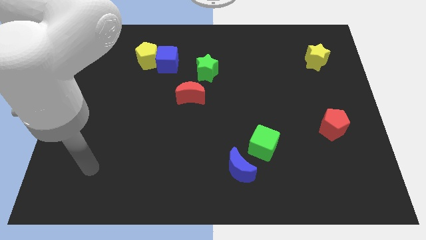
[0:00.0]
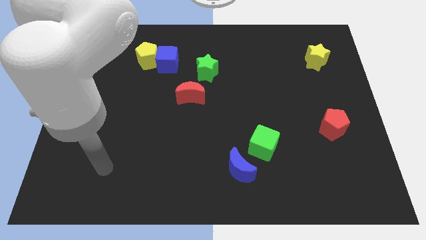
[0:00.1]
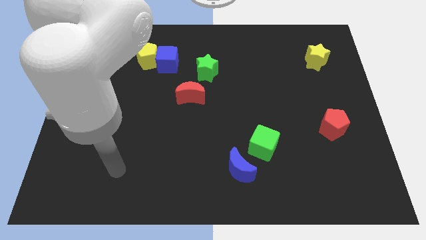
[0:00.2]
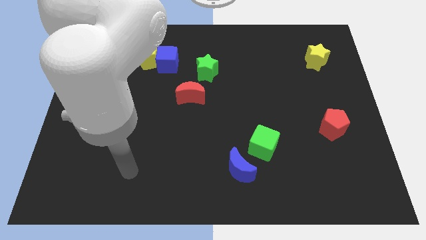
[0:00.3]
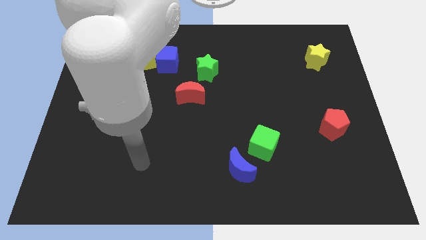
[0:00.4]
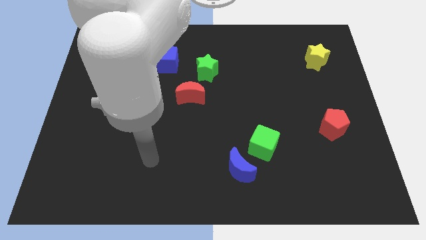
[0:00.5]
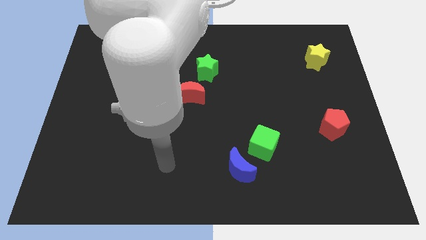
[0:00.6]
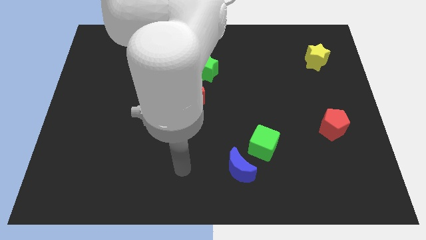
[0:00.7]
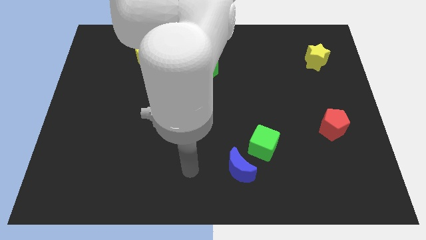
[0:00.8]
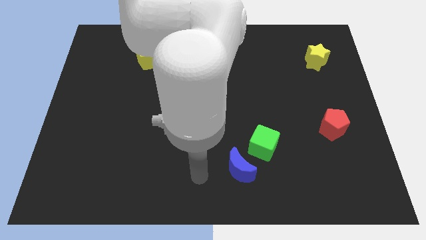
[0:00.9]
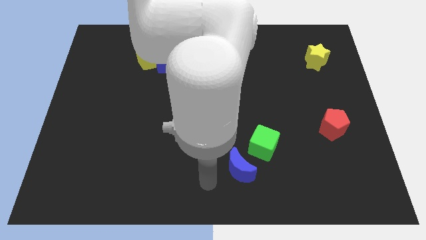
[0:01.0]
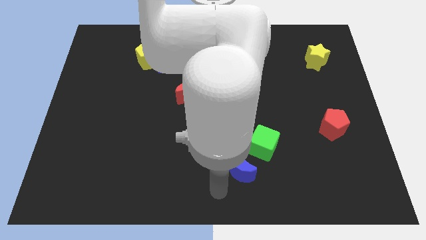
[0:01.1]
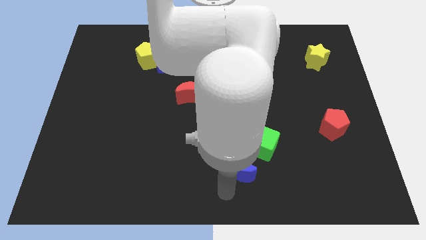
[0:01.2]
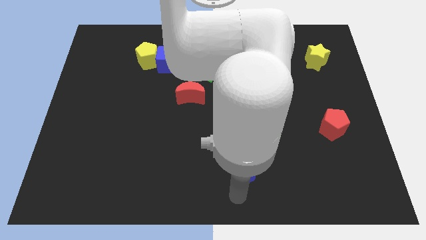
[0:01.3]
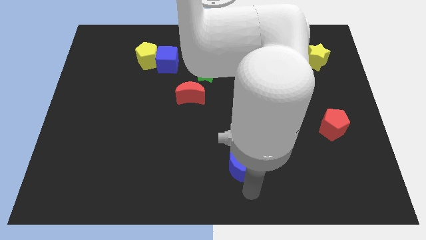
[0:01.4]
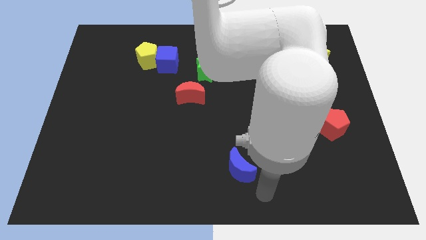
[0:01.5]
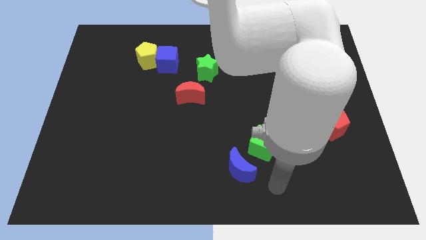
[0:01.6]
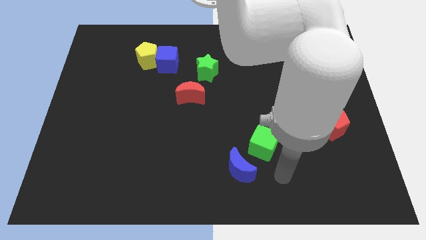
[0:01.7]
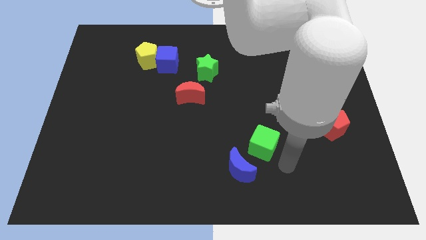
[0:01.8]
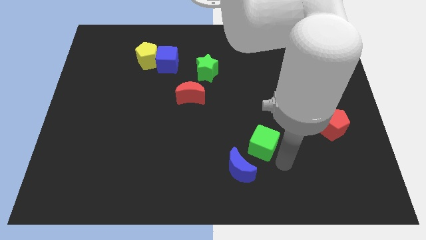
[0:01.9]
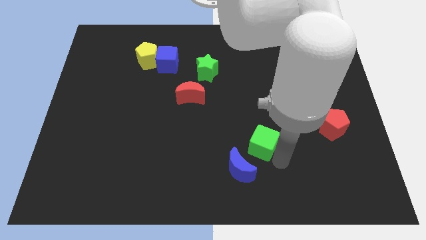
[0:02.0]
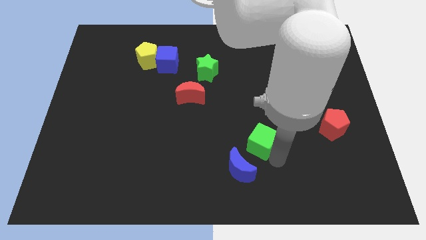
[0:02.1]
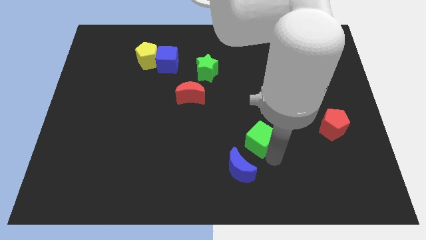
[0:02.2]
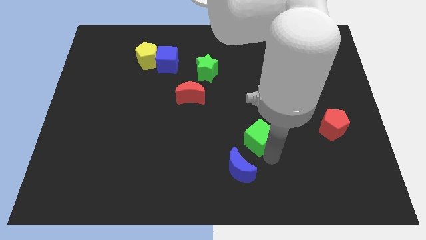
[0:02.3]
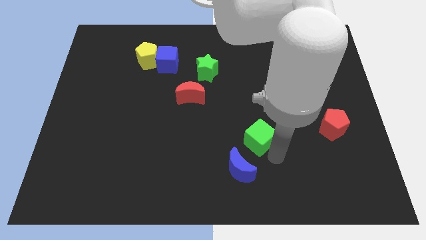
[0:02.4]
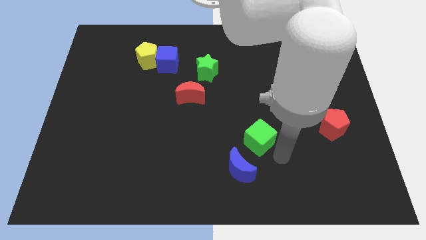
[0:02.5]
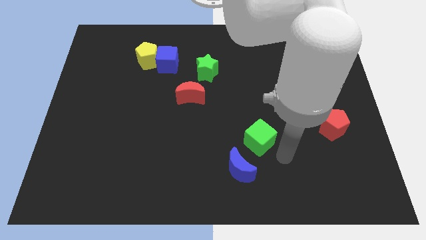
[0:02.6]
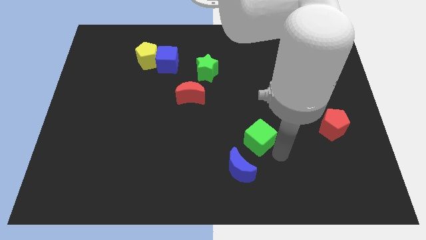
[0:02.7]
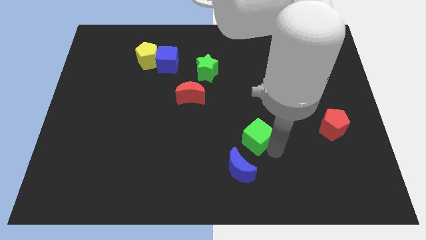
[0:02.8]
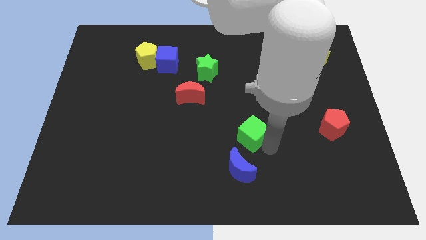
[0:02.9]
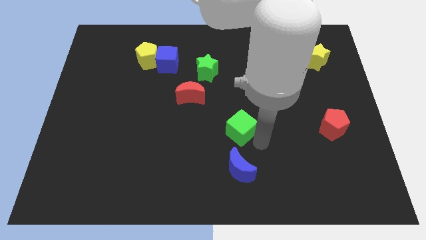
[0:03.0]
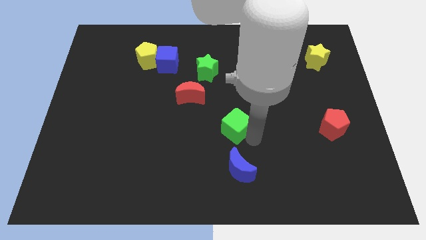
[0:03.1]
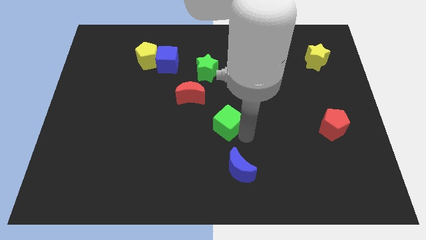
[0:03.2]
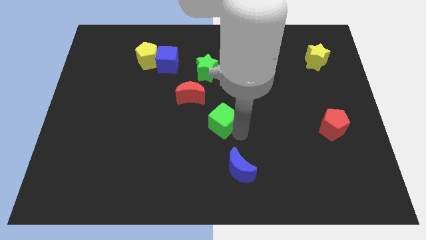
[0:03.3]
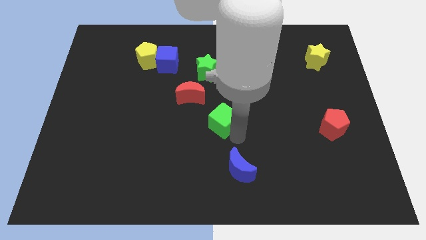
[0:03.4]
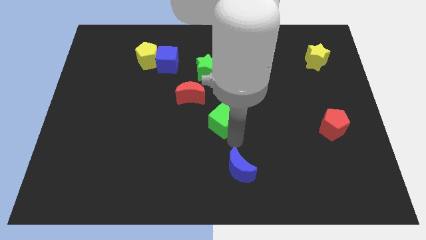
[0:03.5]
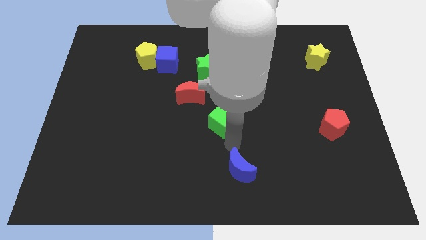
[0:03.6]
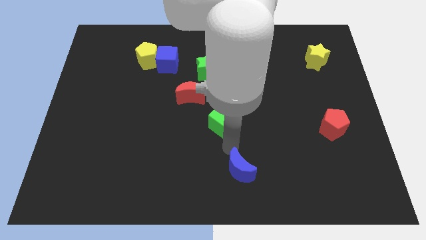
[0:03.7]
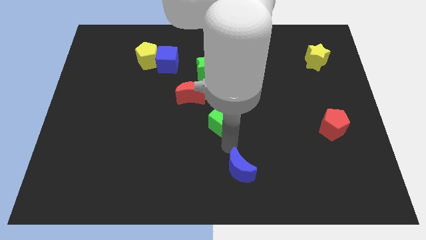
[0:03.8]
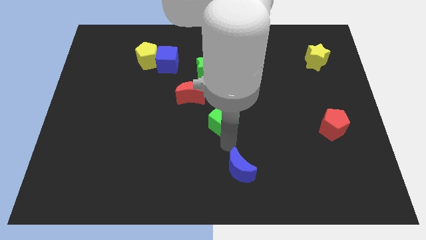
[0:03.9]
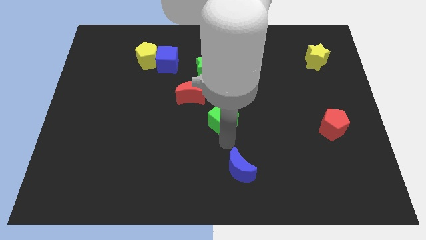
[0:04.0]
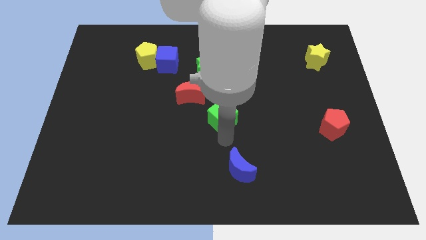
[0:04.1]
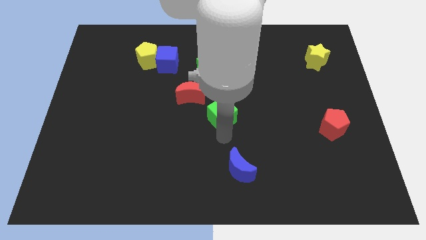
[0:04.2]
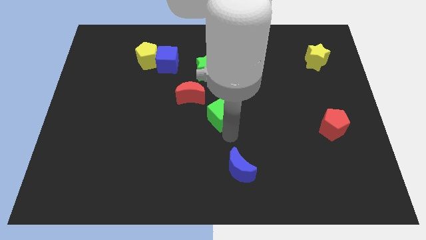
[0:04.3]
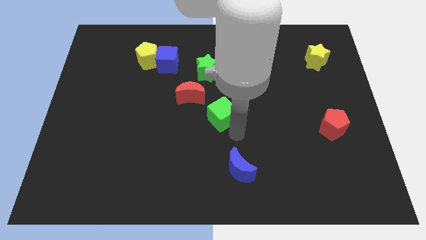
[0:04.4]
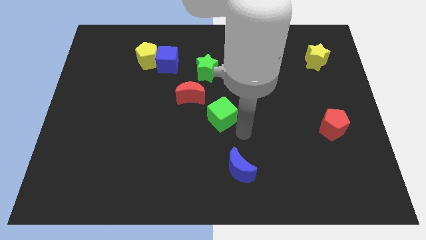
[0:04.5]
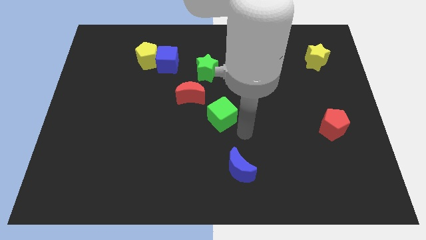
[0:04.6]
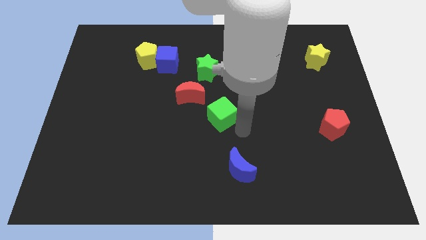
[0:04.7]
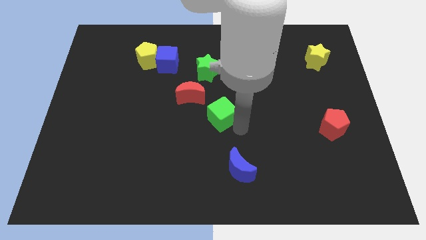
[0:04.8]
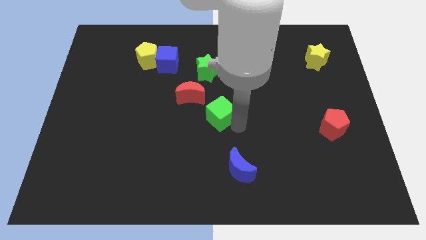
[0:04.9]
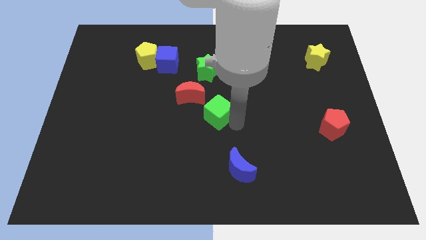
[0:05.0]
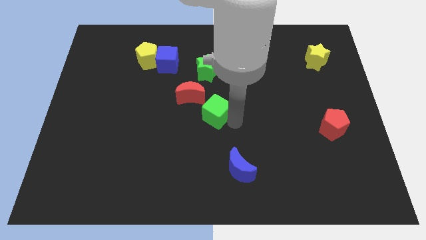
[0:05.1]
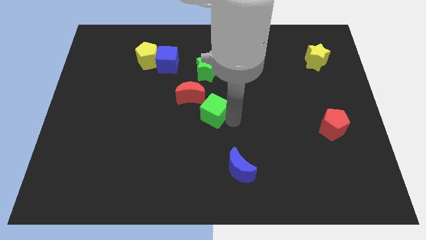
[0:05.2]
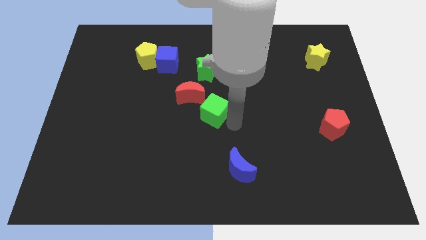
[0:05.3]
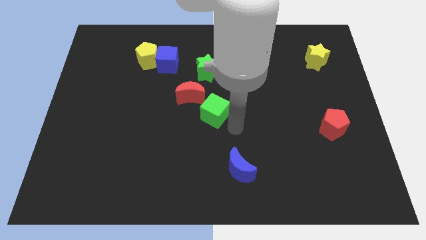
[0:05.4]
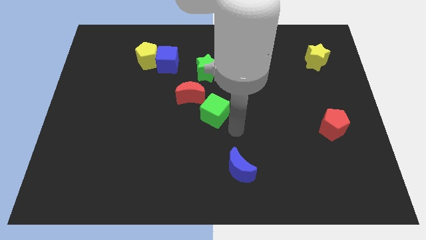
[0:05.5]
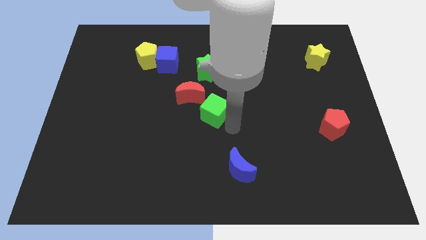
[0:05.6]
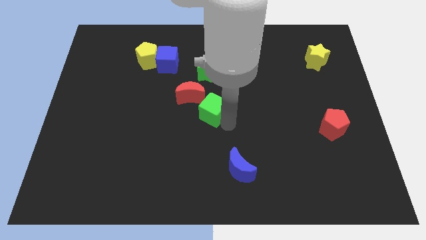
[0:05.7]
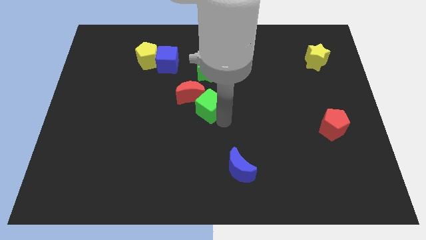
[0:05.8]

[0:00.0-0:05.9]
put the green cube close to the red moon

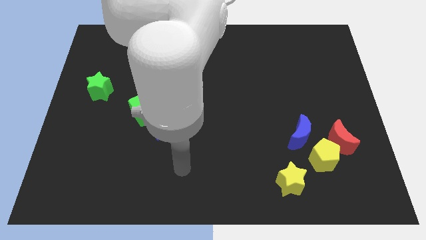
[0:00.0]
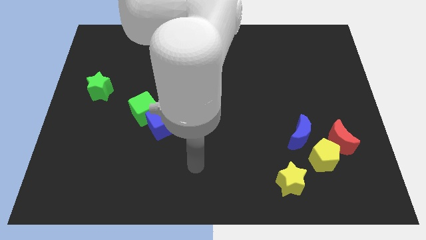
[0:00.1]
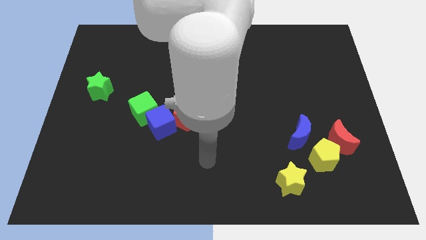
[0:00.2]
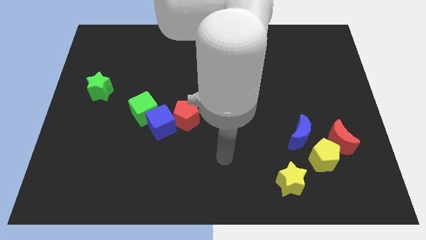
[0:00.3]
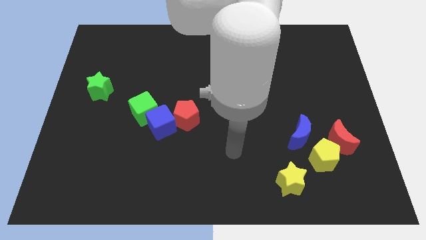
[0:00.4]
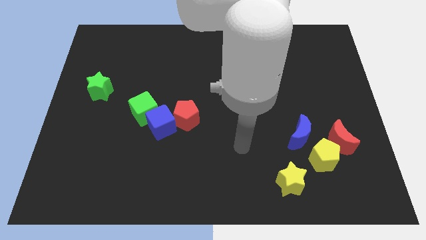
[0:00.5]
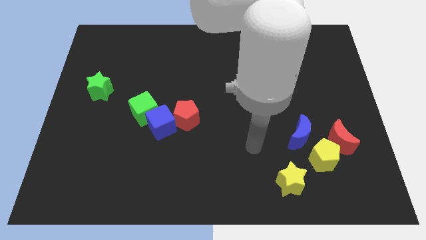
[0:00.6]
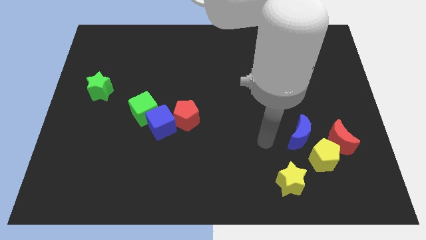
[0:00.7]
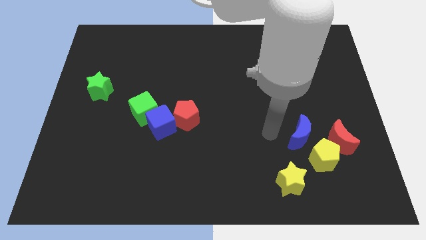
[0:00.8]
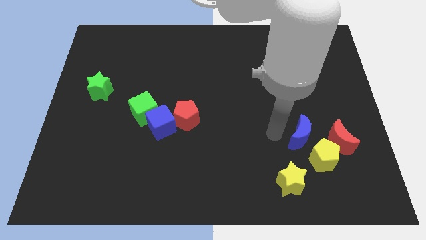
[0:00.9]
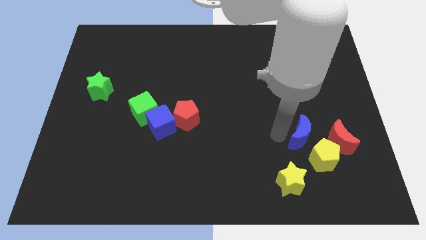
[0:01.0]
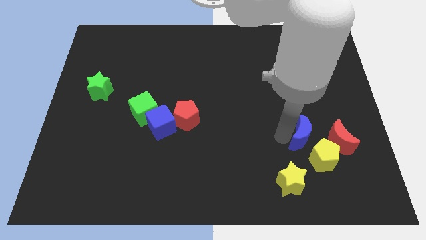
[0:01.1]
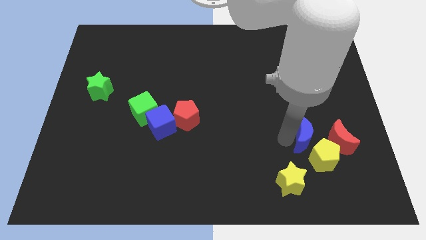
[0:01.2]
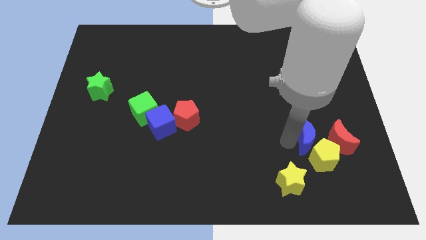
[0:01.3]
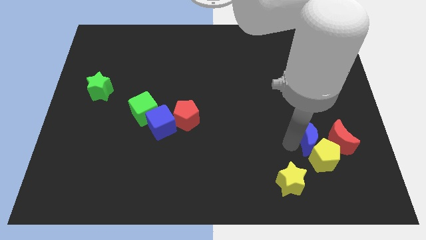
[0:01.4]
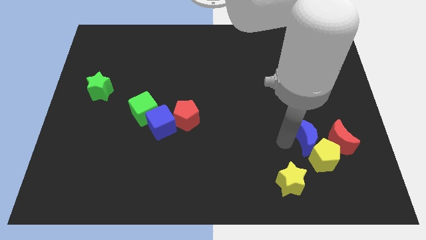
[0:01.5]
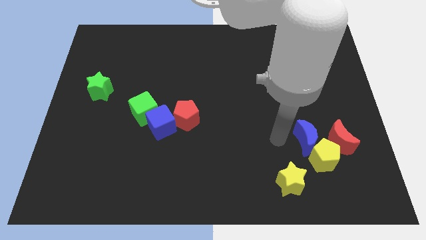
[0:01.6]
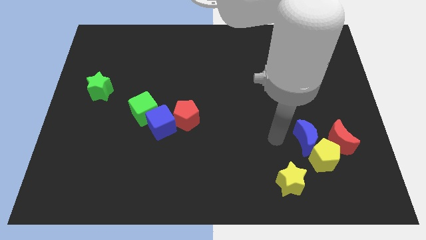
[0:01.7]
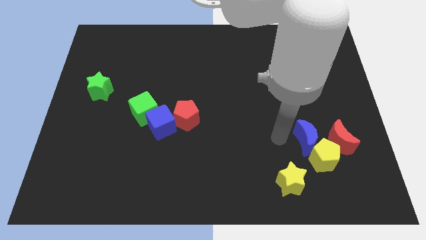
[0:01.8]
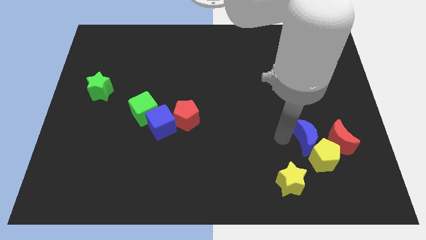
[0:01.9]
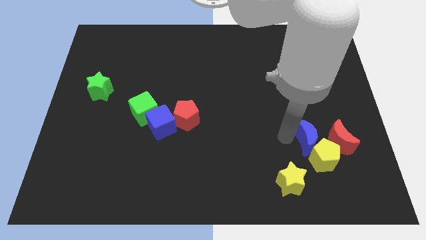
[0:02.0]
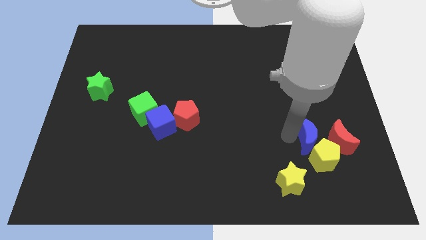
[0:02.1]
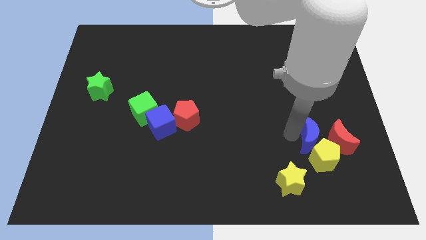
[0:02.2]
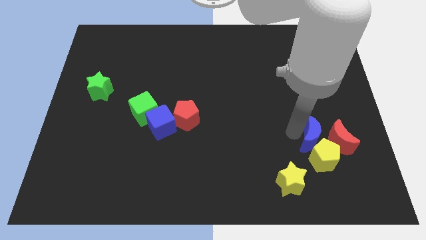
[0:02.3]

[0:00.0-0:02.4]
slide the blue moon next to the red moon
